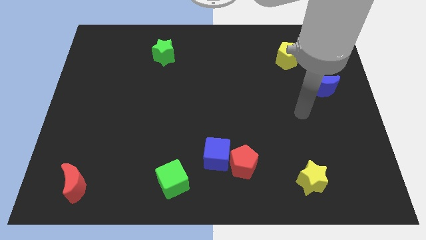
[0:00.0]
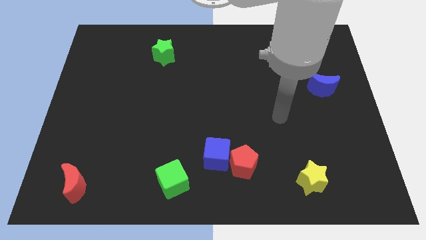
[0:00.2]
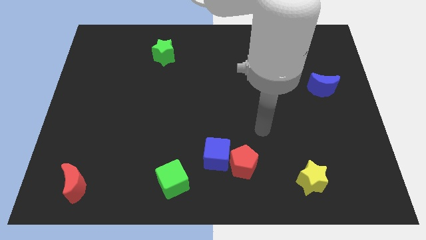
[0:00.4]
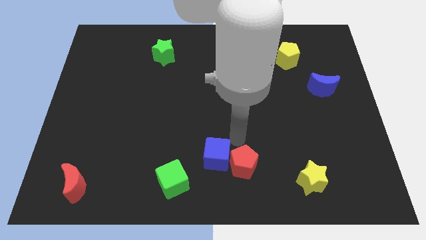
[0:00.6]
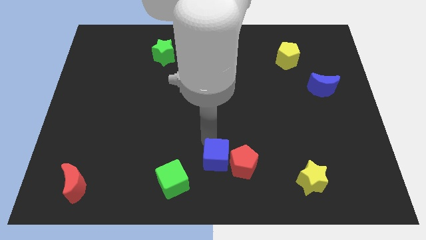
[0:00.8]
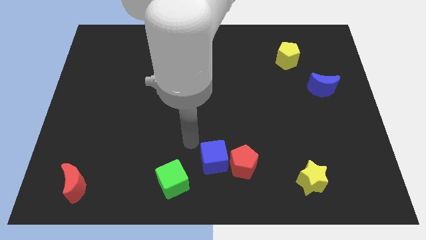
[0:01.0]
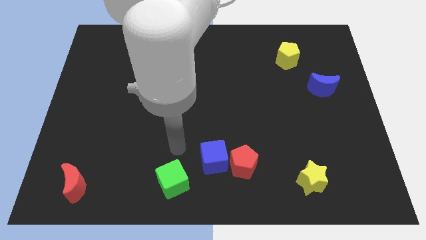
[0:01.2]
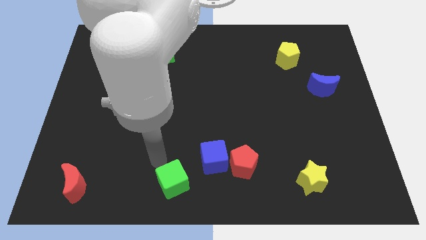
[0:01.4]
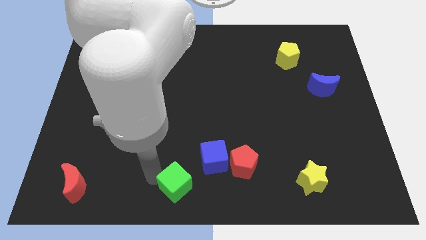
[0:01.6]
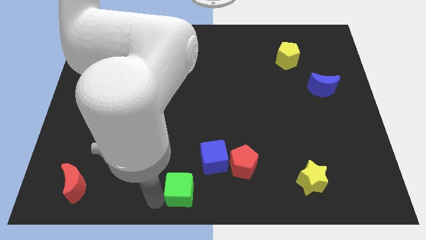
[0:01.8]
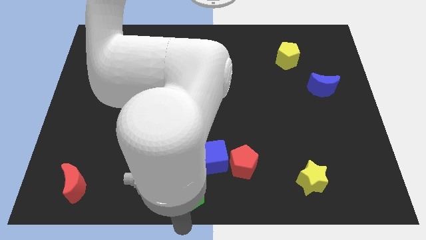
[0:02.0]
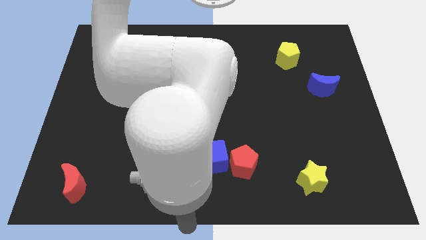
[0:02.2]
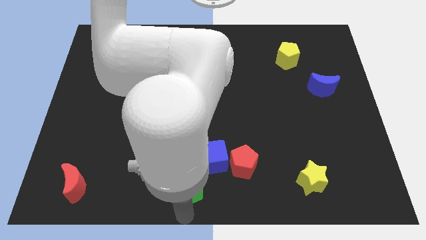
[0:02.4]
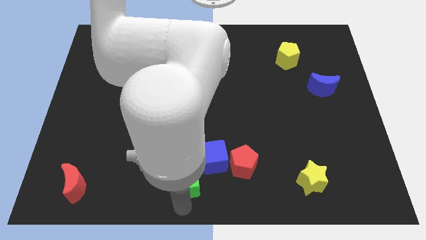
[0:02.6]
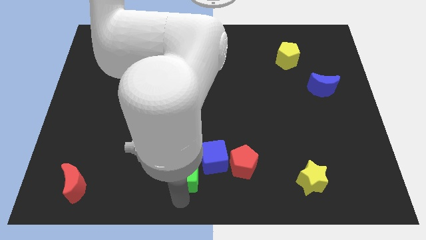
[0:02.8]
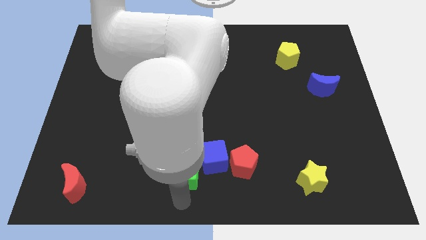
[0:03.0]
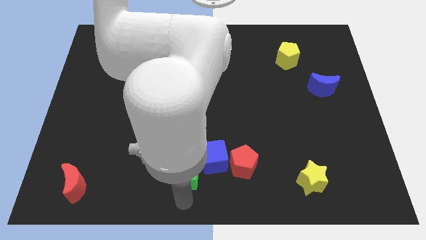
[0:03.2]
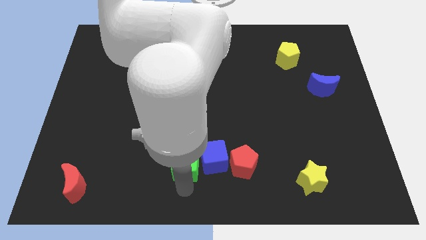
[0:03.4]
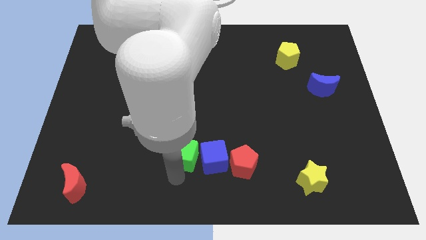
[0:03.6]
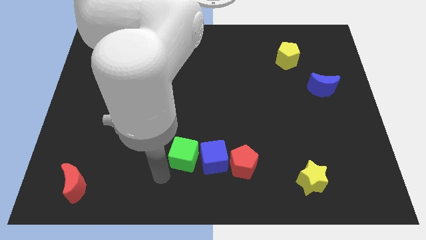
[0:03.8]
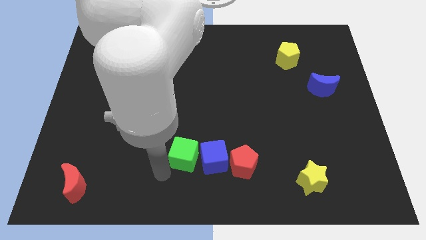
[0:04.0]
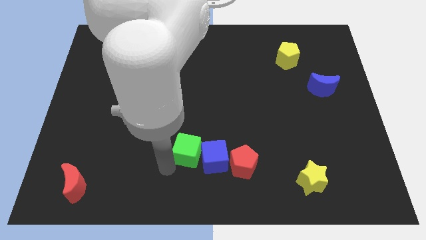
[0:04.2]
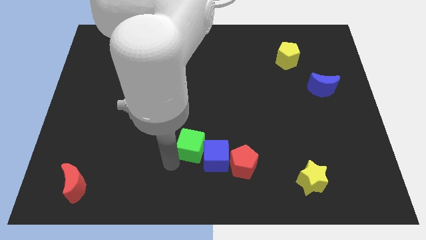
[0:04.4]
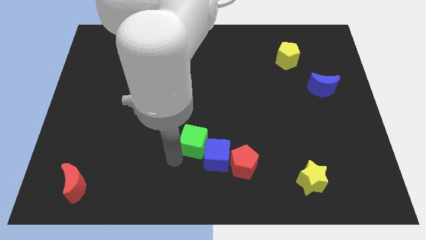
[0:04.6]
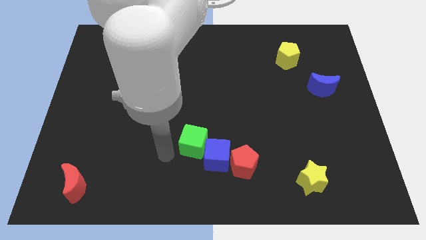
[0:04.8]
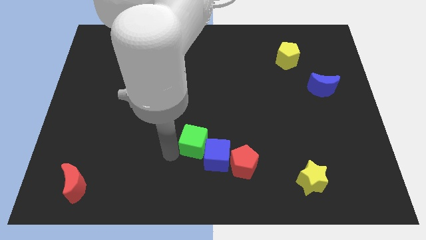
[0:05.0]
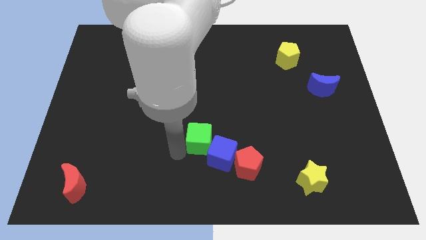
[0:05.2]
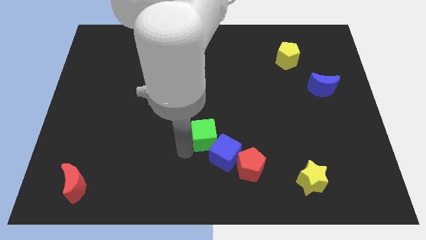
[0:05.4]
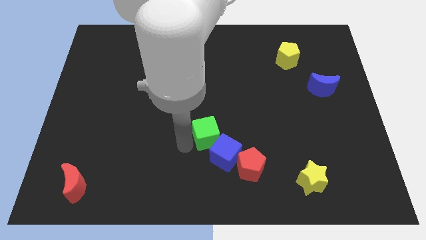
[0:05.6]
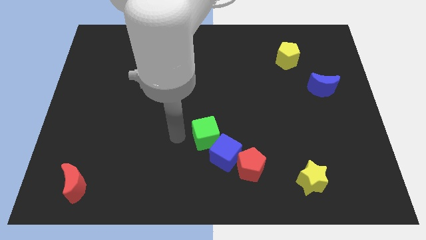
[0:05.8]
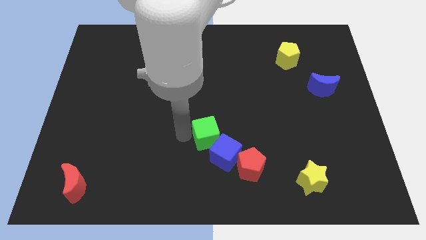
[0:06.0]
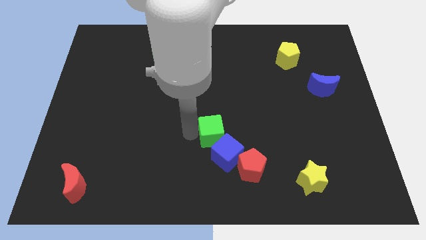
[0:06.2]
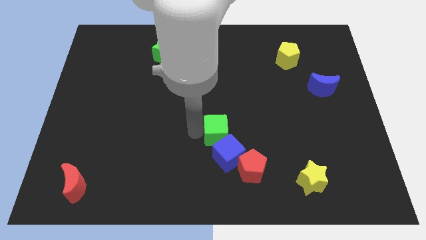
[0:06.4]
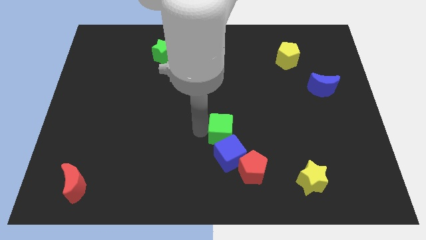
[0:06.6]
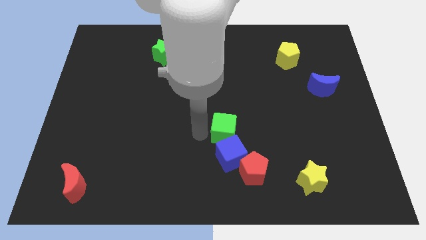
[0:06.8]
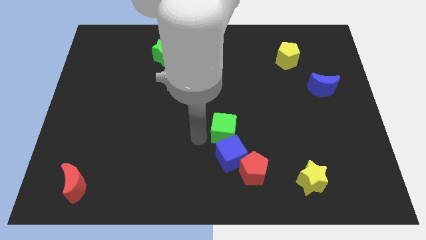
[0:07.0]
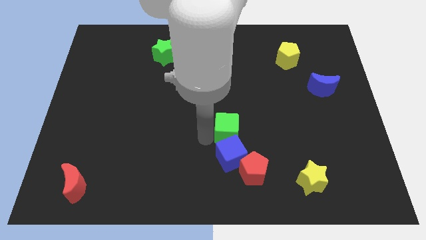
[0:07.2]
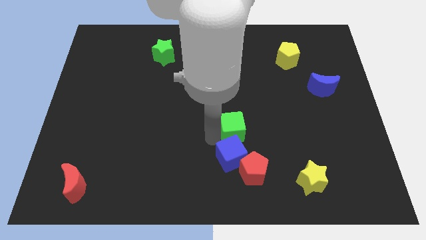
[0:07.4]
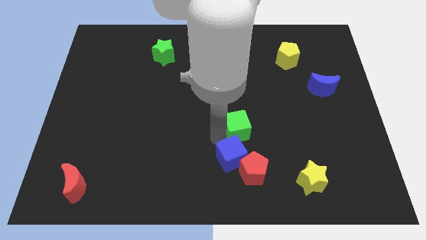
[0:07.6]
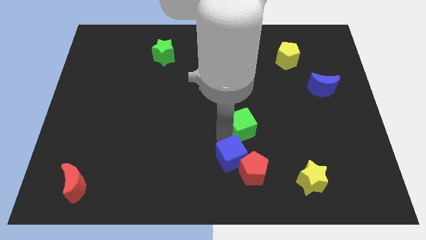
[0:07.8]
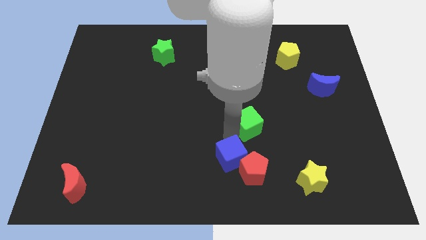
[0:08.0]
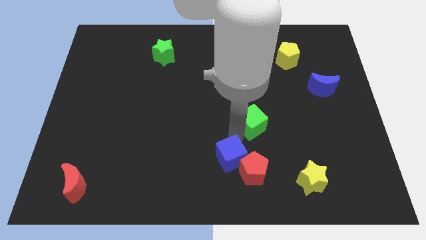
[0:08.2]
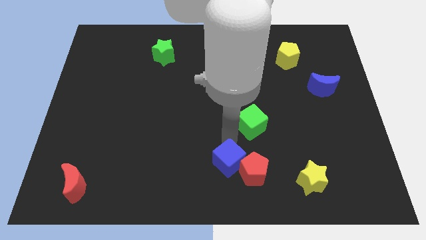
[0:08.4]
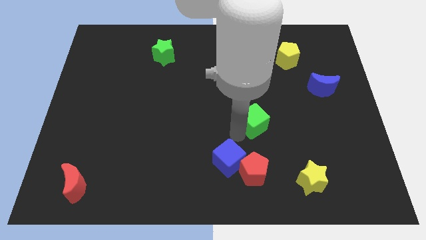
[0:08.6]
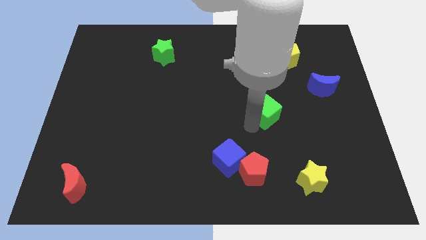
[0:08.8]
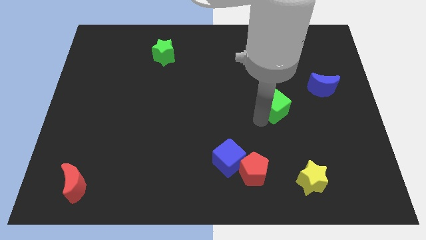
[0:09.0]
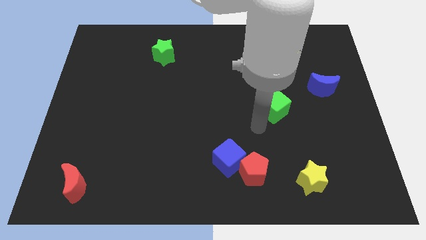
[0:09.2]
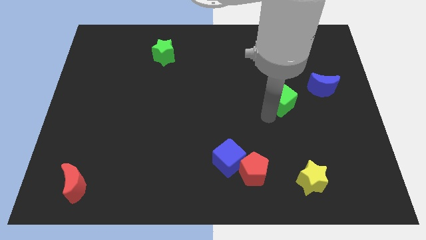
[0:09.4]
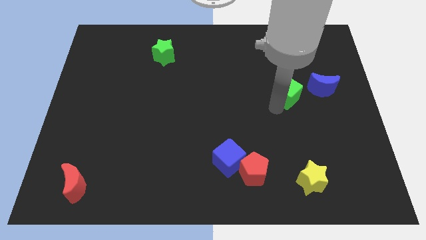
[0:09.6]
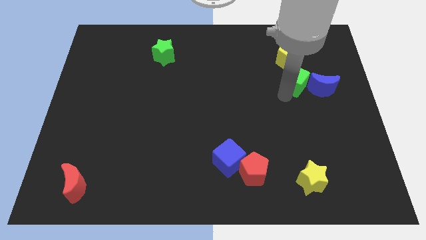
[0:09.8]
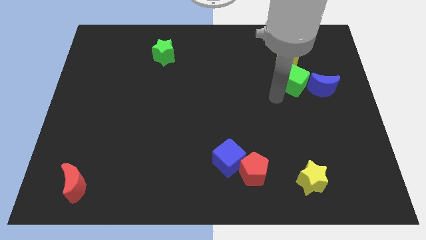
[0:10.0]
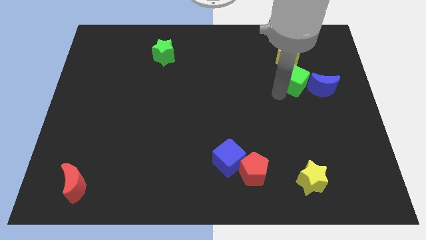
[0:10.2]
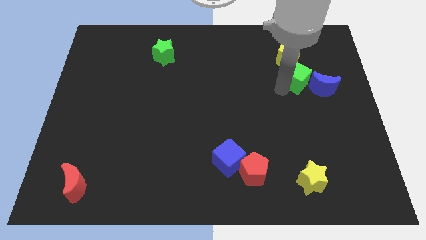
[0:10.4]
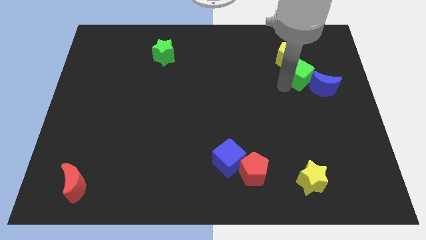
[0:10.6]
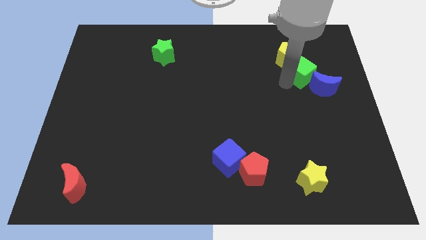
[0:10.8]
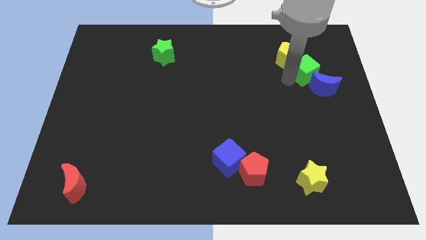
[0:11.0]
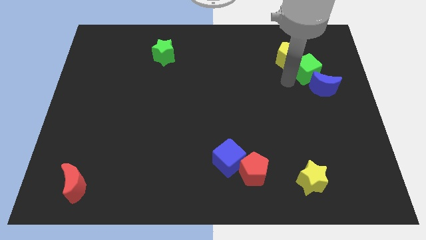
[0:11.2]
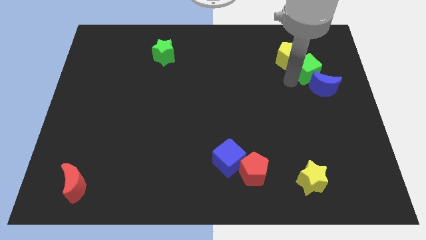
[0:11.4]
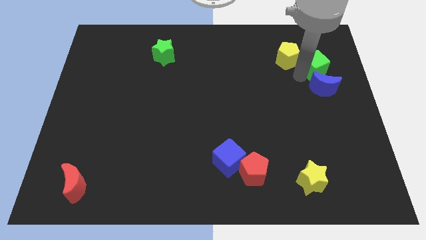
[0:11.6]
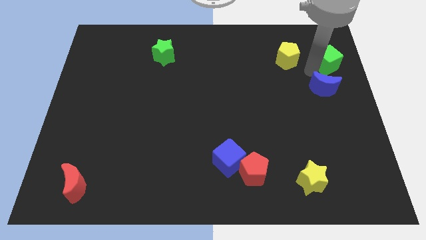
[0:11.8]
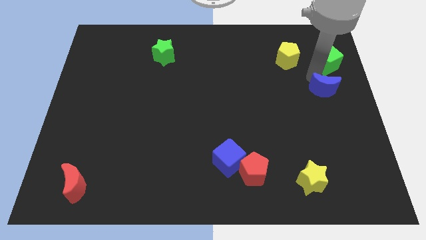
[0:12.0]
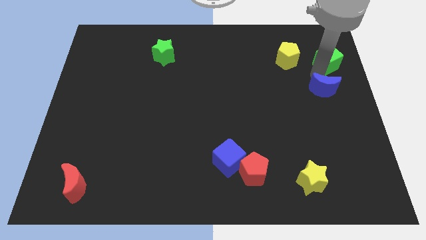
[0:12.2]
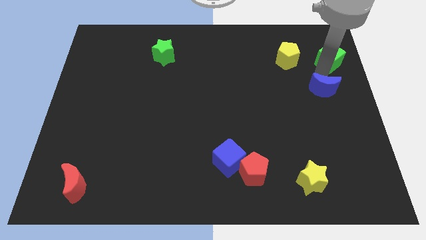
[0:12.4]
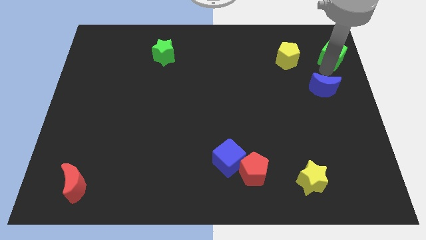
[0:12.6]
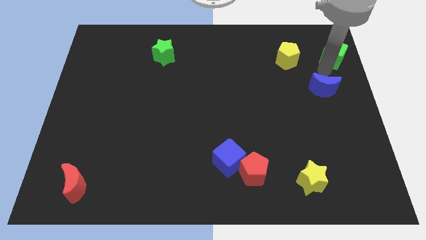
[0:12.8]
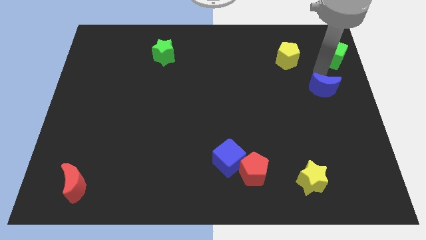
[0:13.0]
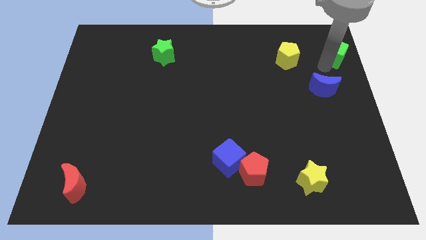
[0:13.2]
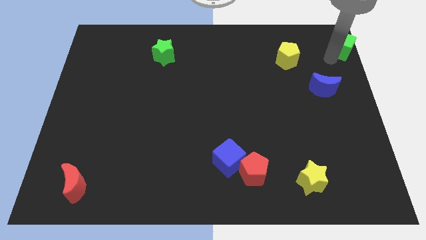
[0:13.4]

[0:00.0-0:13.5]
push the green cube to the top right corner
